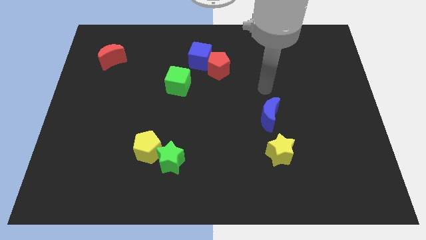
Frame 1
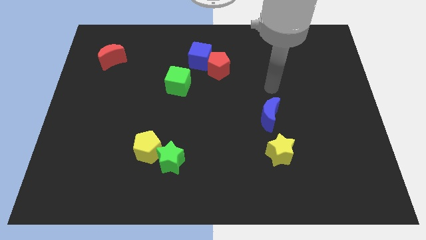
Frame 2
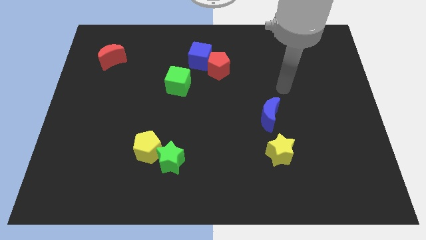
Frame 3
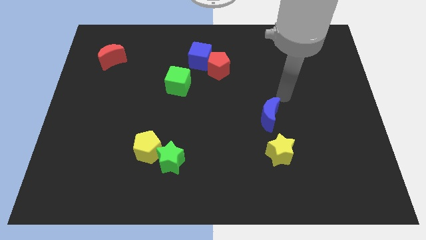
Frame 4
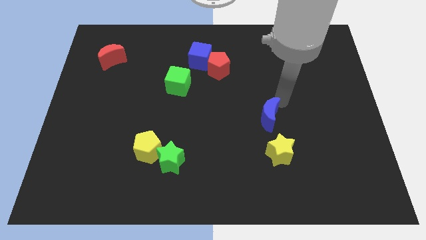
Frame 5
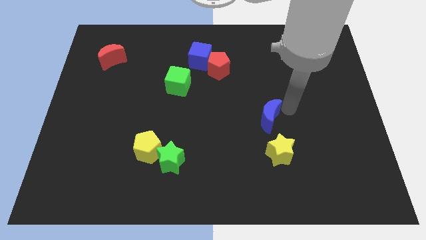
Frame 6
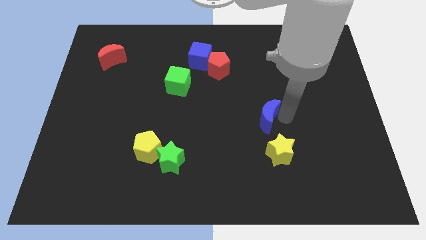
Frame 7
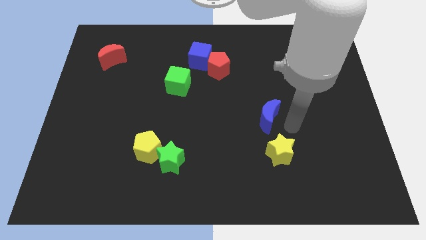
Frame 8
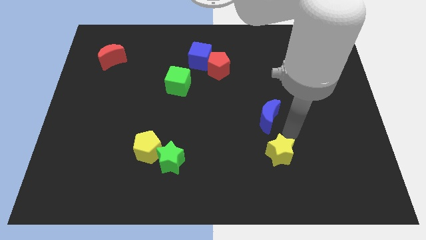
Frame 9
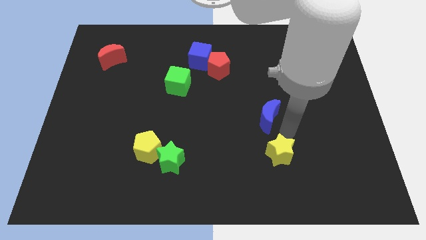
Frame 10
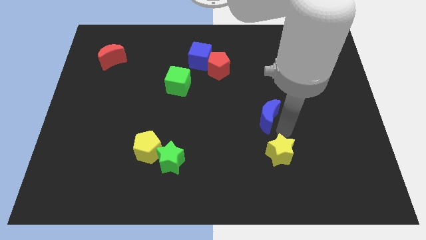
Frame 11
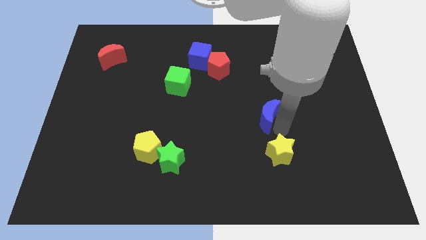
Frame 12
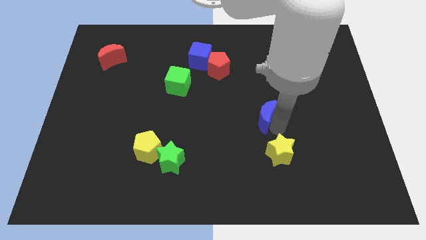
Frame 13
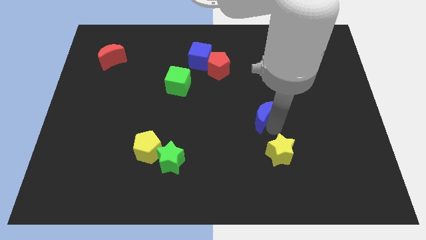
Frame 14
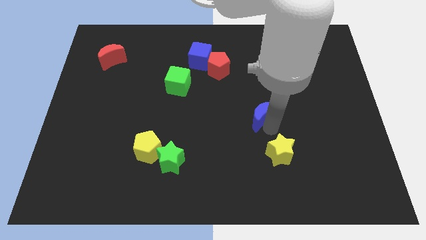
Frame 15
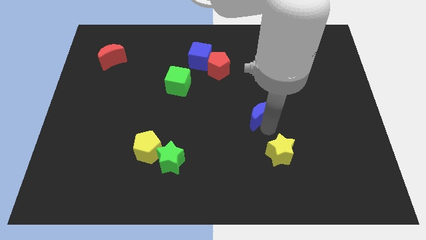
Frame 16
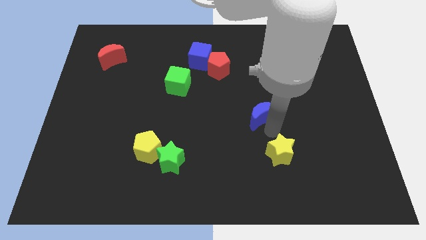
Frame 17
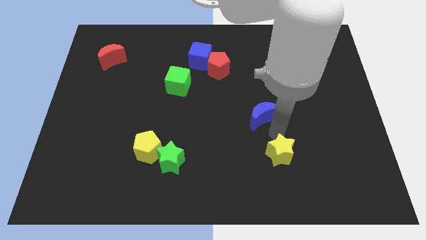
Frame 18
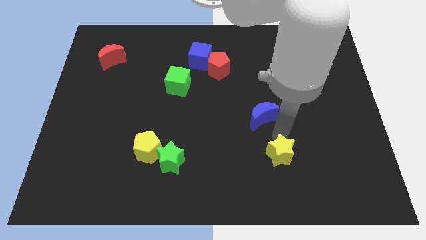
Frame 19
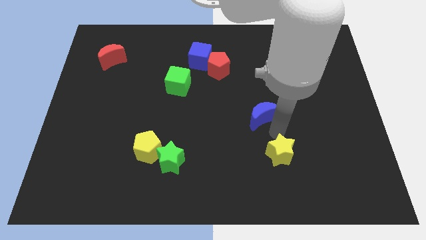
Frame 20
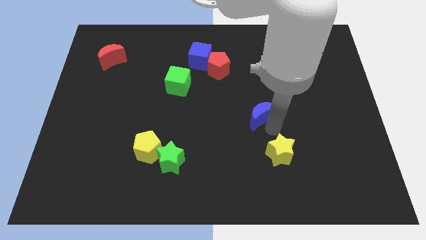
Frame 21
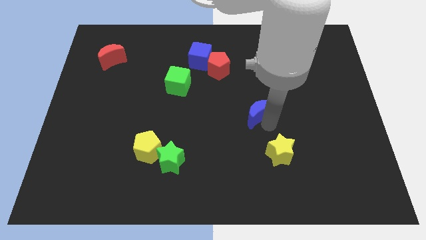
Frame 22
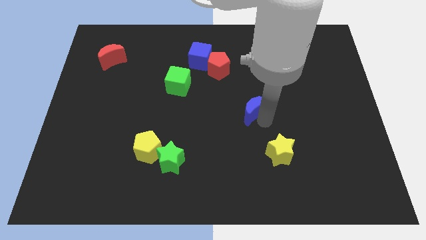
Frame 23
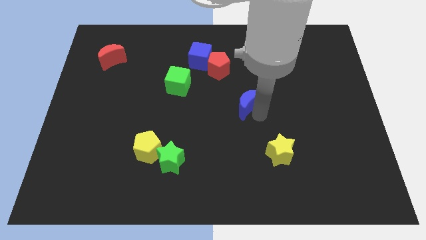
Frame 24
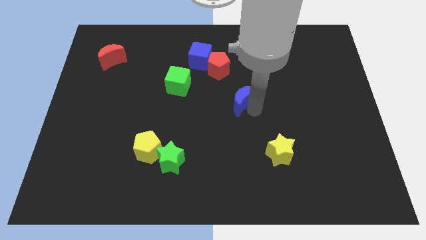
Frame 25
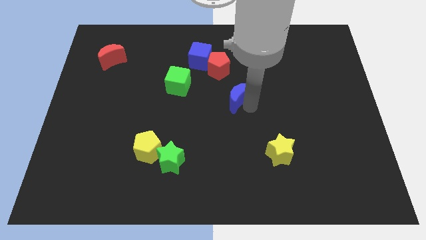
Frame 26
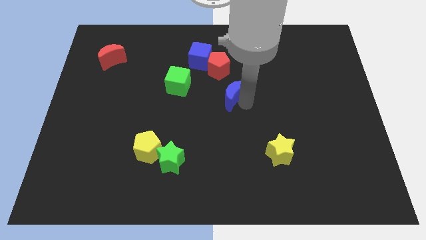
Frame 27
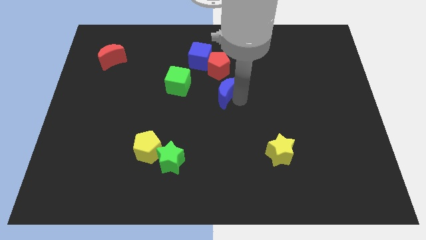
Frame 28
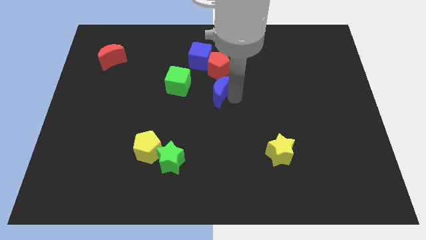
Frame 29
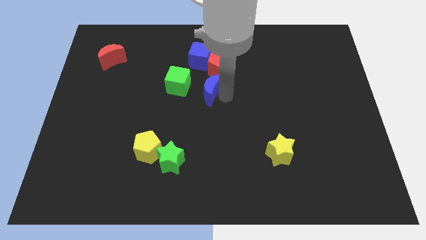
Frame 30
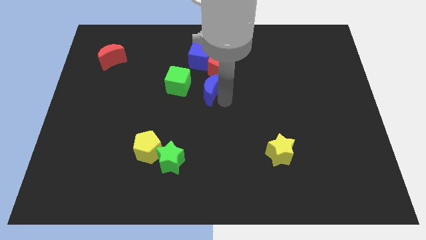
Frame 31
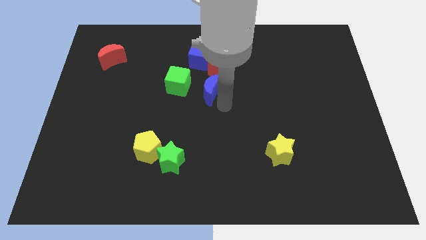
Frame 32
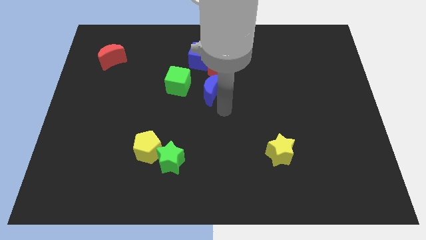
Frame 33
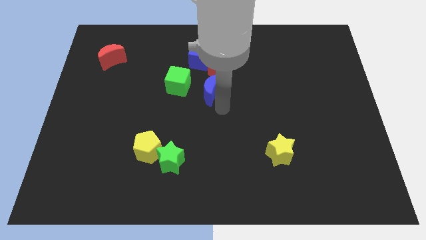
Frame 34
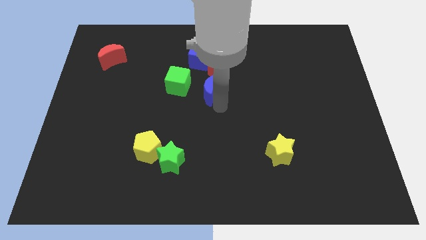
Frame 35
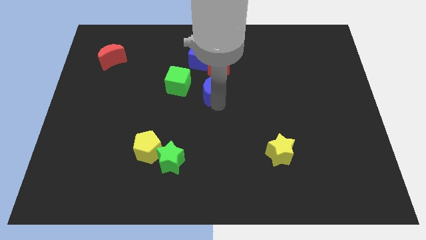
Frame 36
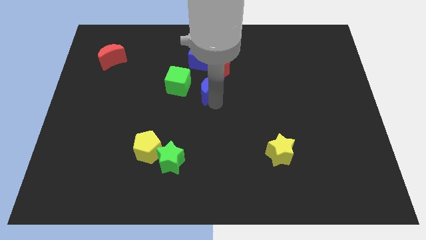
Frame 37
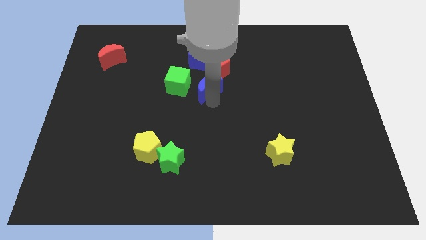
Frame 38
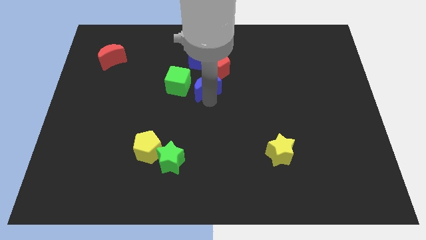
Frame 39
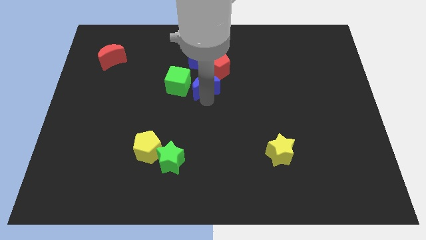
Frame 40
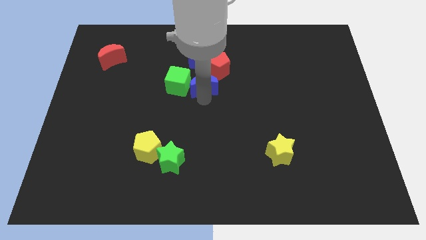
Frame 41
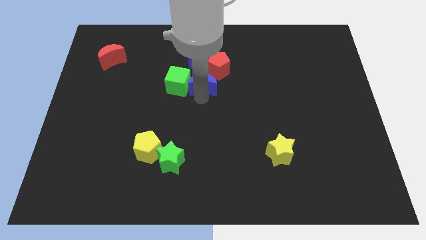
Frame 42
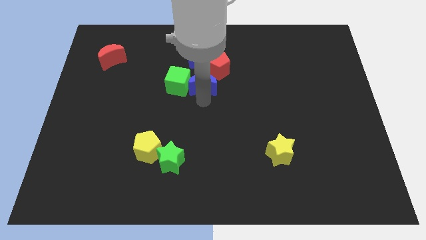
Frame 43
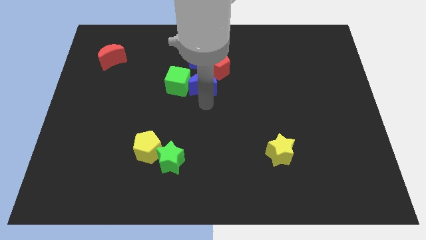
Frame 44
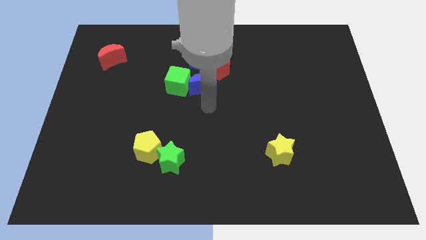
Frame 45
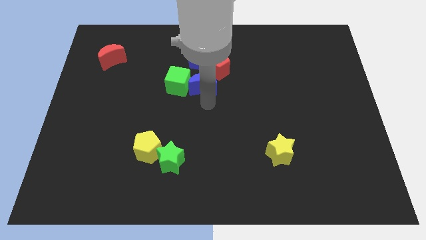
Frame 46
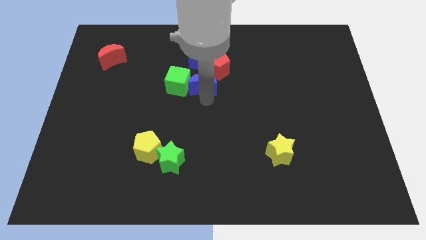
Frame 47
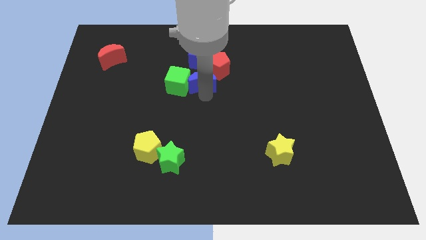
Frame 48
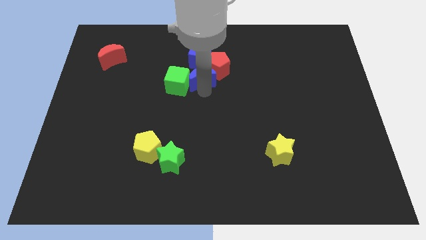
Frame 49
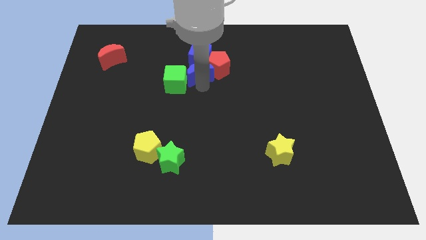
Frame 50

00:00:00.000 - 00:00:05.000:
push the blue moon to the blue cube

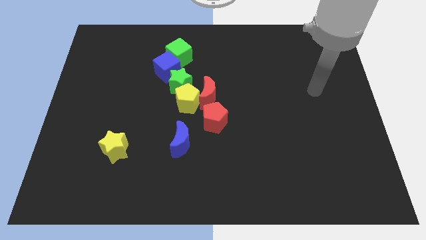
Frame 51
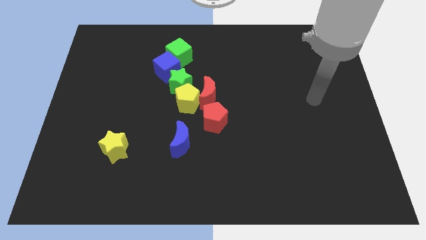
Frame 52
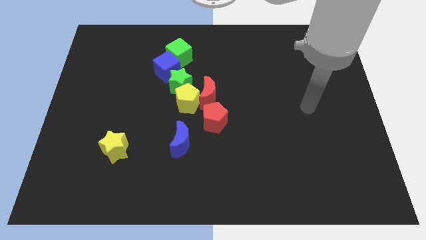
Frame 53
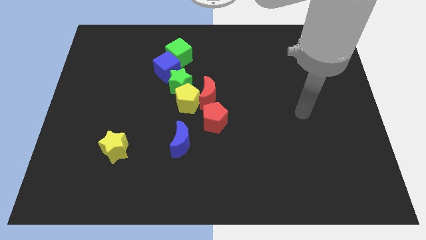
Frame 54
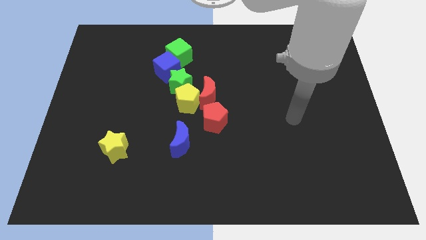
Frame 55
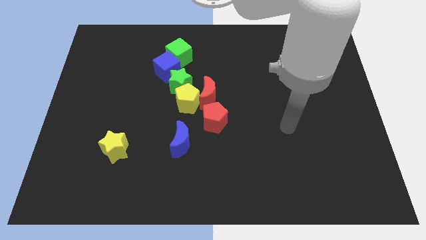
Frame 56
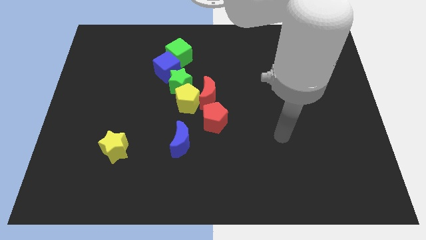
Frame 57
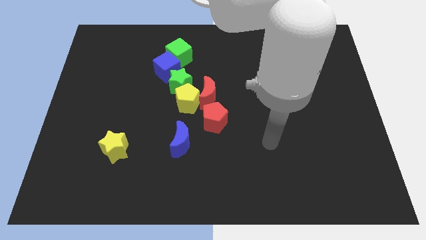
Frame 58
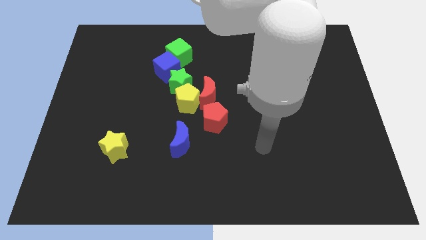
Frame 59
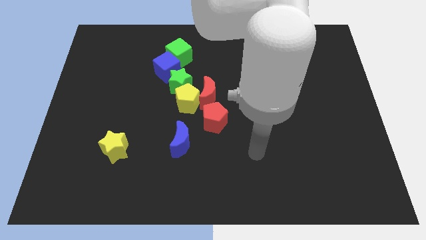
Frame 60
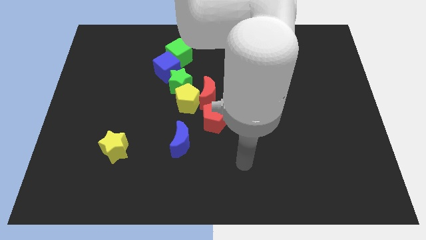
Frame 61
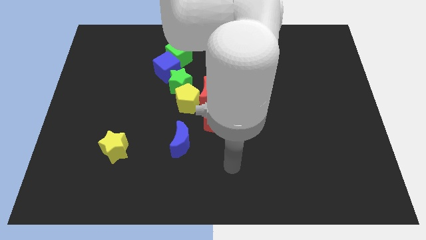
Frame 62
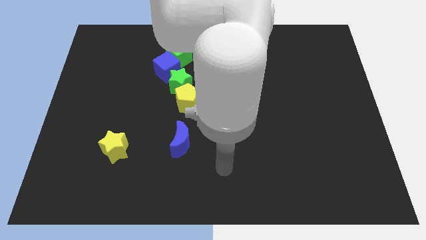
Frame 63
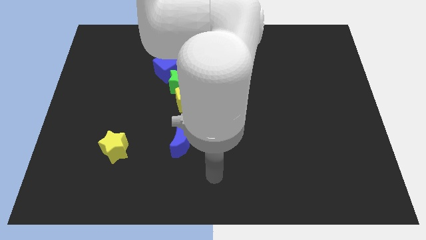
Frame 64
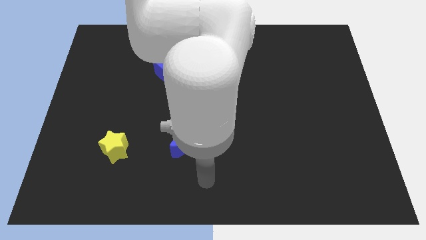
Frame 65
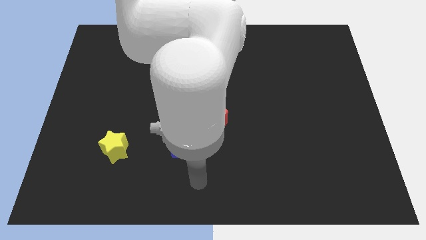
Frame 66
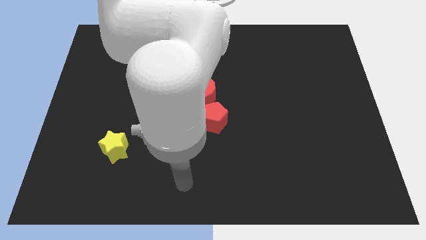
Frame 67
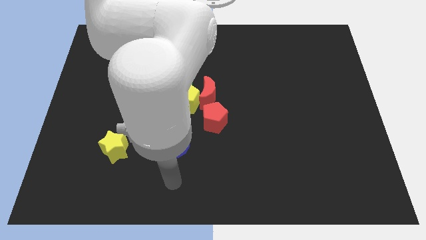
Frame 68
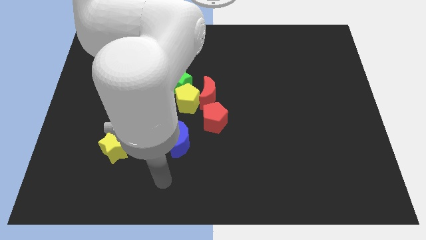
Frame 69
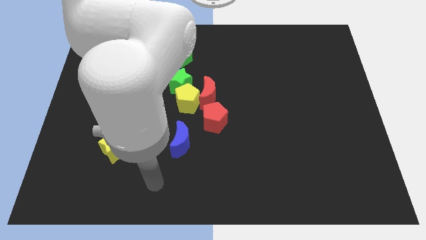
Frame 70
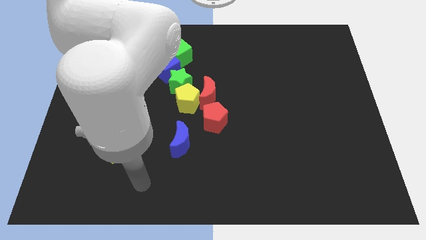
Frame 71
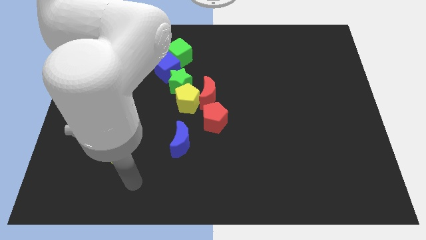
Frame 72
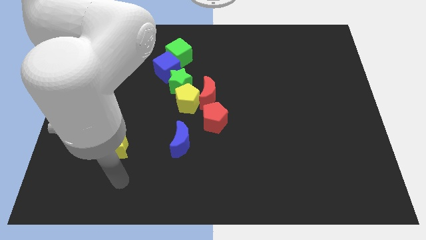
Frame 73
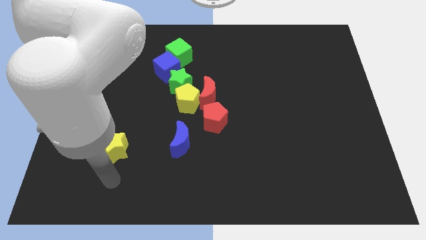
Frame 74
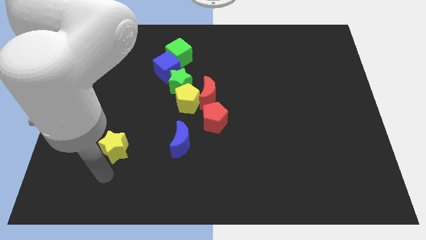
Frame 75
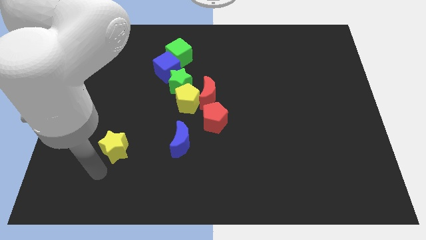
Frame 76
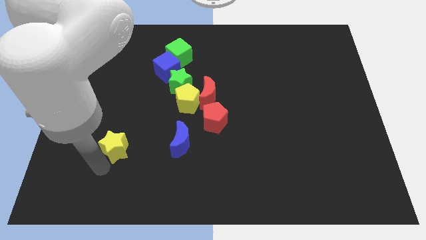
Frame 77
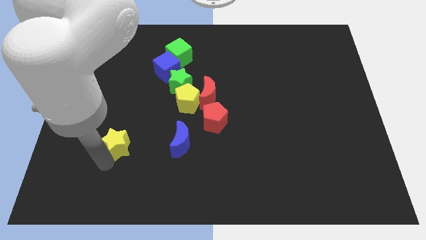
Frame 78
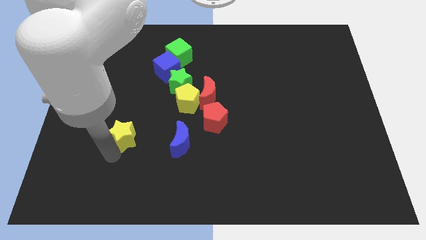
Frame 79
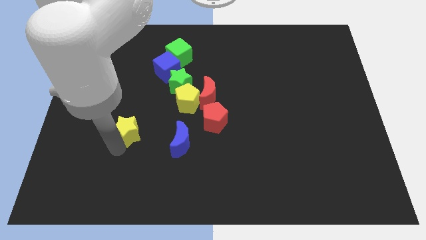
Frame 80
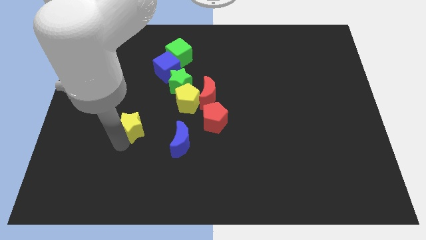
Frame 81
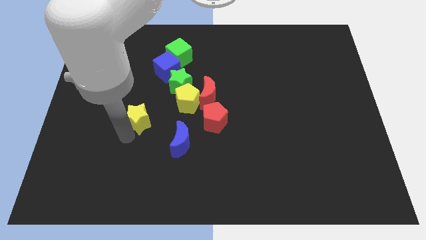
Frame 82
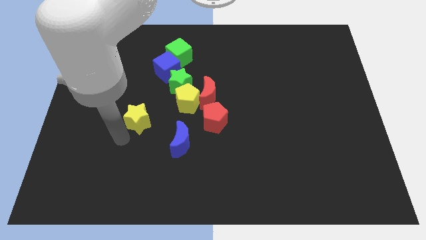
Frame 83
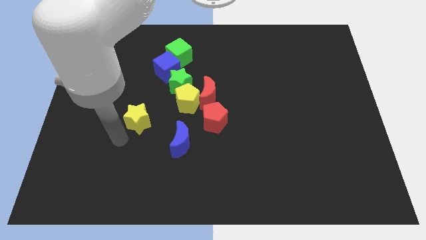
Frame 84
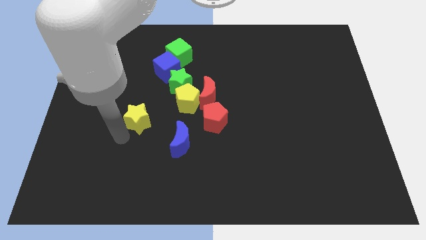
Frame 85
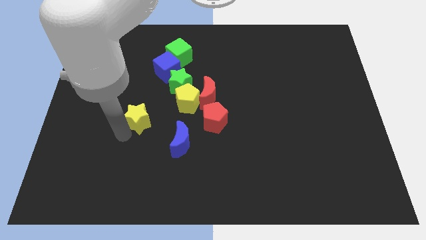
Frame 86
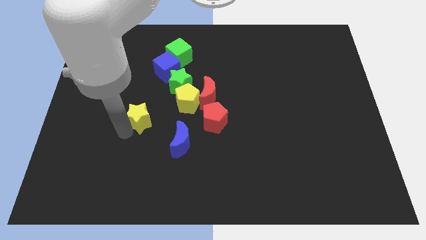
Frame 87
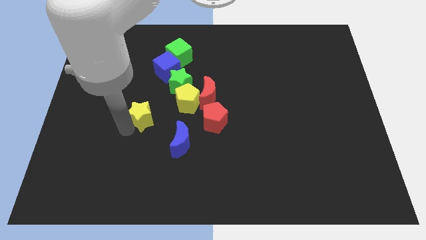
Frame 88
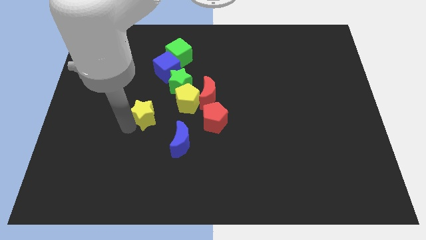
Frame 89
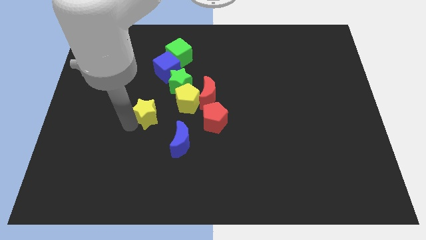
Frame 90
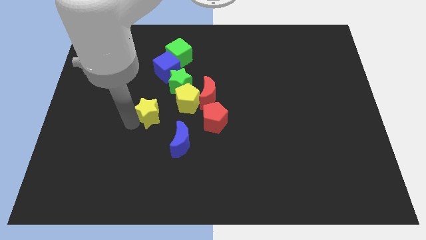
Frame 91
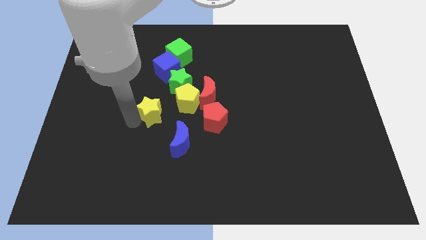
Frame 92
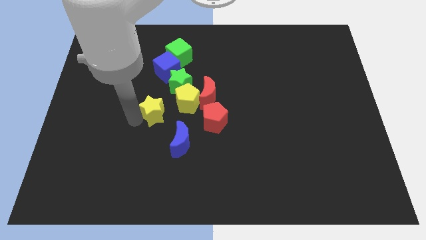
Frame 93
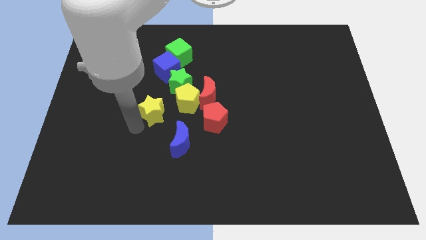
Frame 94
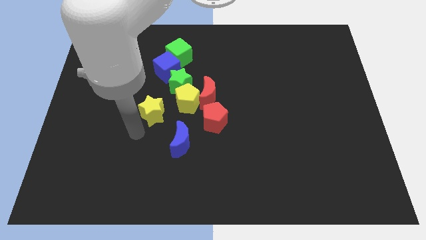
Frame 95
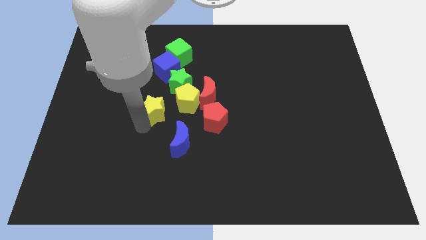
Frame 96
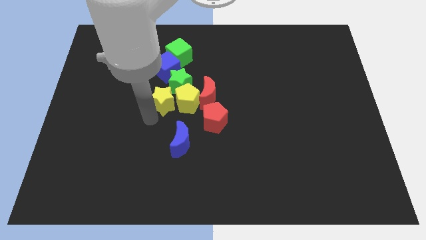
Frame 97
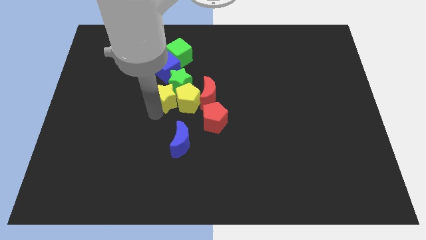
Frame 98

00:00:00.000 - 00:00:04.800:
push the yellow star towards the green star
